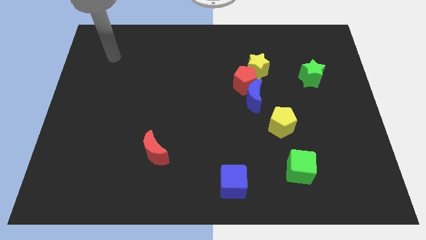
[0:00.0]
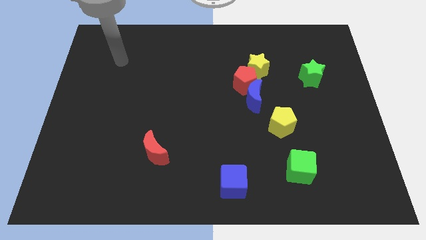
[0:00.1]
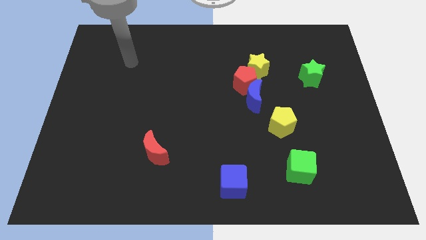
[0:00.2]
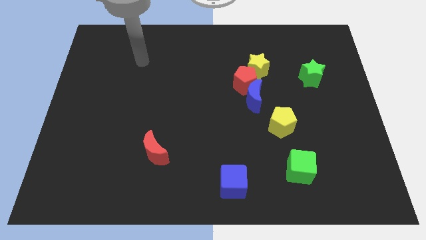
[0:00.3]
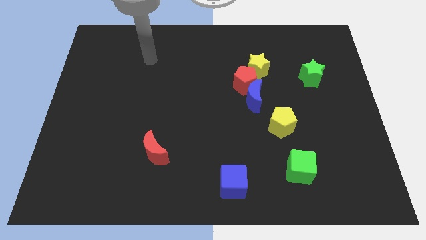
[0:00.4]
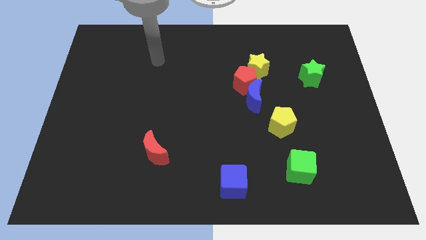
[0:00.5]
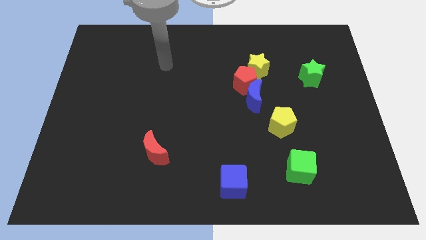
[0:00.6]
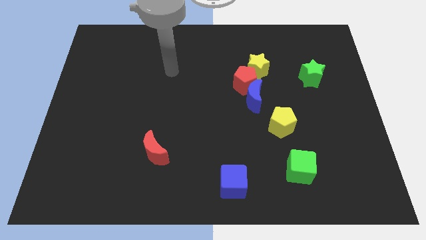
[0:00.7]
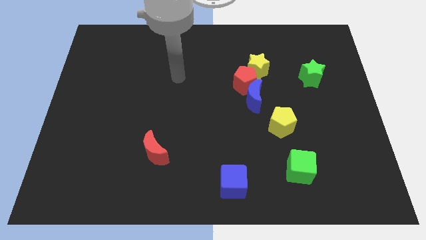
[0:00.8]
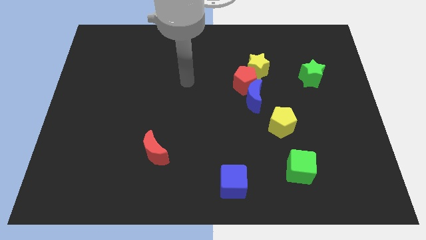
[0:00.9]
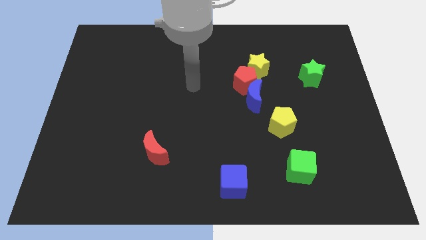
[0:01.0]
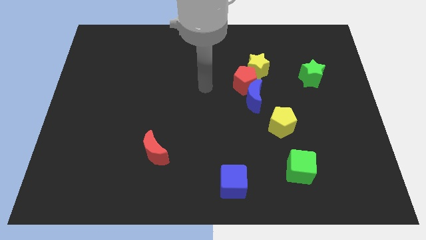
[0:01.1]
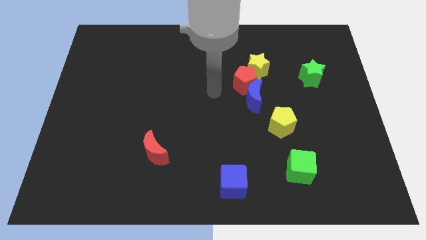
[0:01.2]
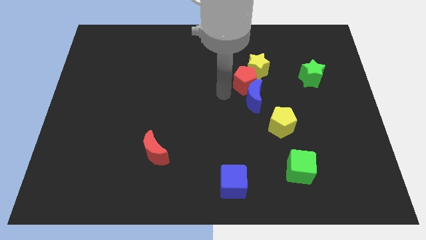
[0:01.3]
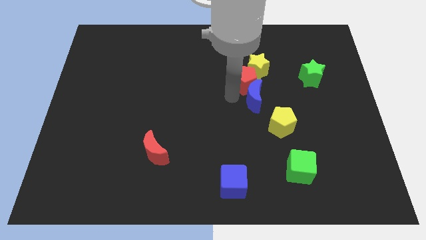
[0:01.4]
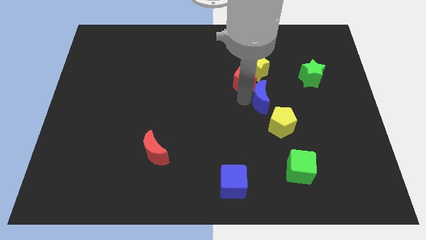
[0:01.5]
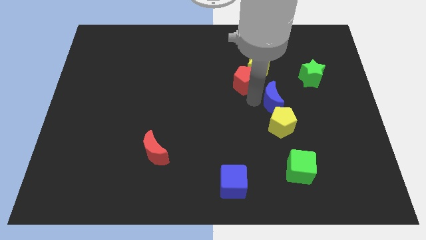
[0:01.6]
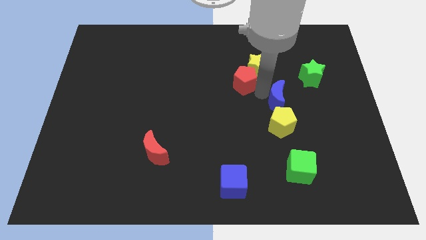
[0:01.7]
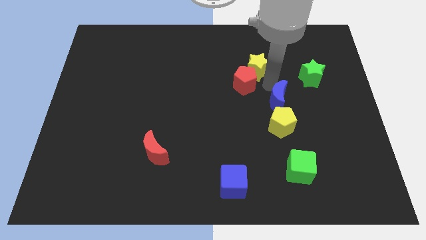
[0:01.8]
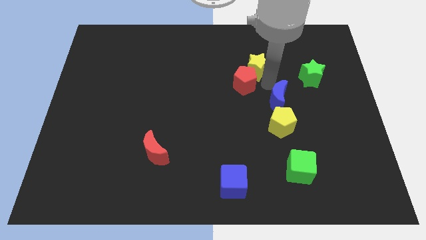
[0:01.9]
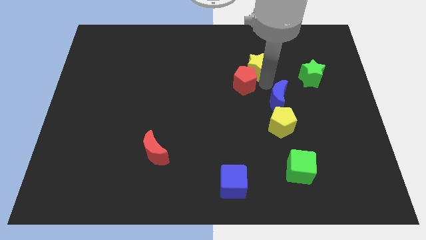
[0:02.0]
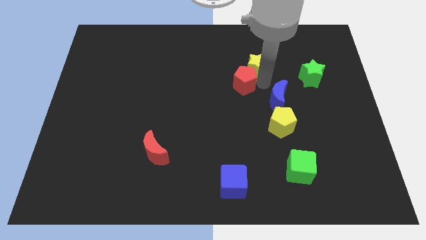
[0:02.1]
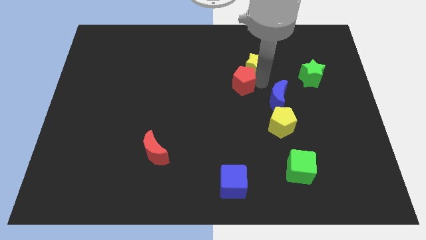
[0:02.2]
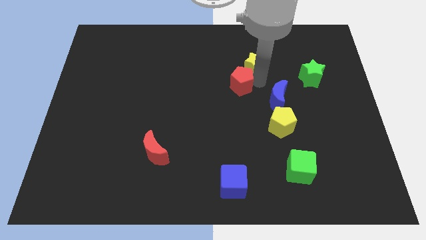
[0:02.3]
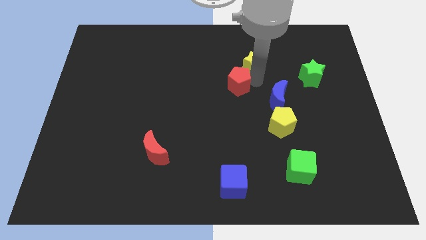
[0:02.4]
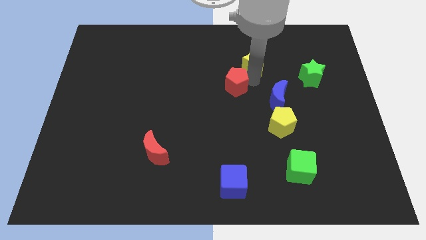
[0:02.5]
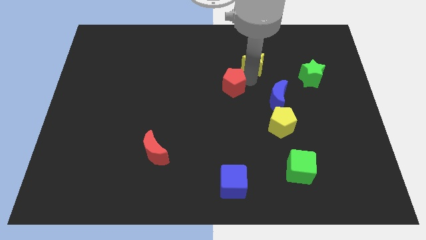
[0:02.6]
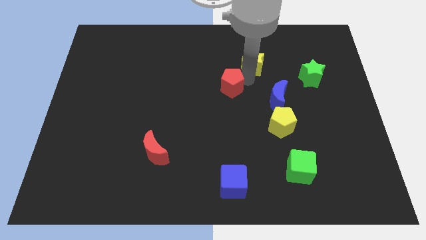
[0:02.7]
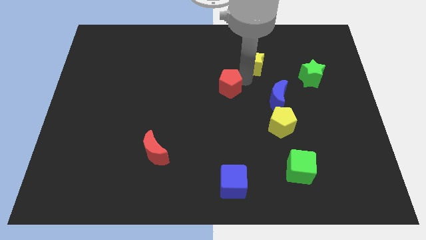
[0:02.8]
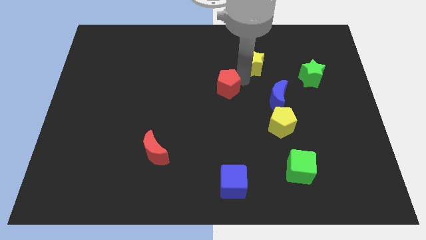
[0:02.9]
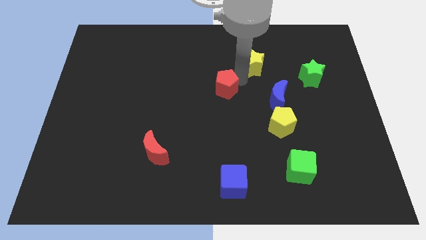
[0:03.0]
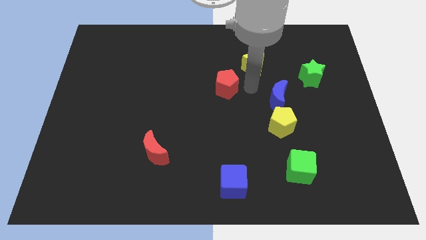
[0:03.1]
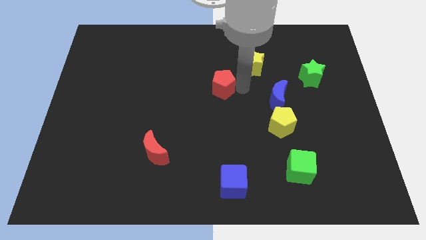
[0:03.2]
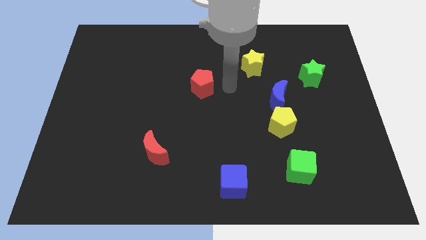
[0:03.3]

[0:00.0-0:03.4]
push the red pentagon somewhat to the left

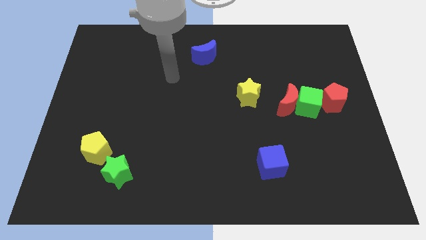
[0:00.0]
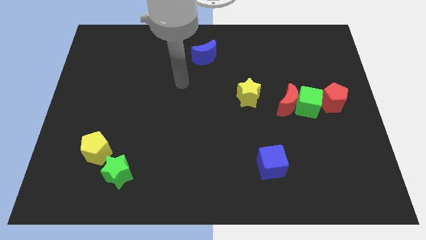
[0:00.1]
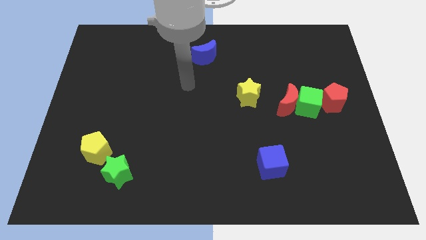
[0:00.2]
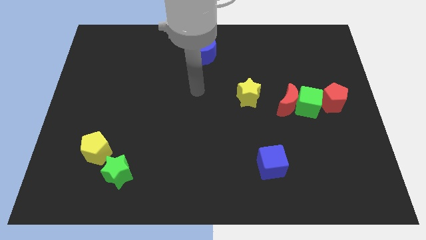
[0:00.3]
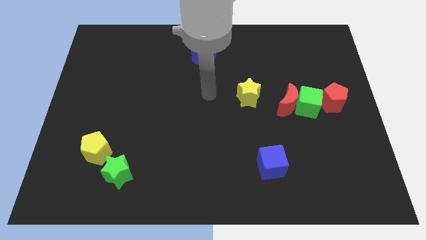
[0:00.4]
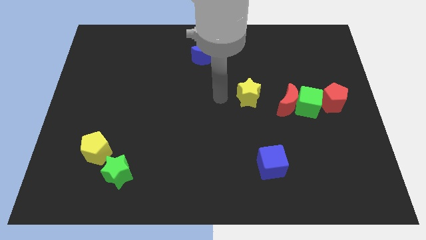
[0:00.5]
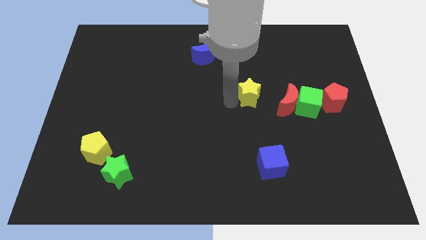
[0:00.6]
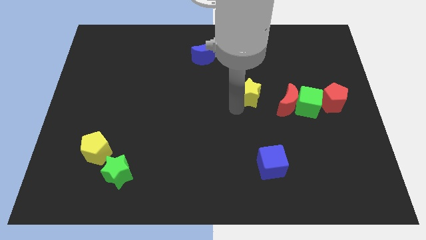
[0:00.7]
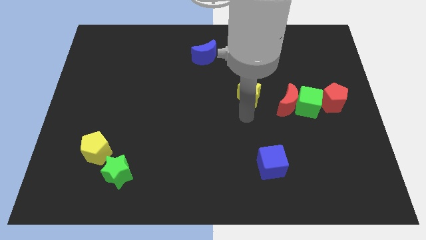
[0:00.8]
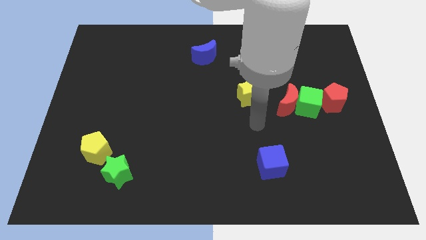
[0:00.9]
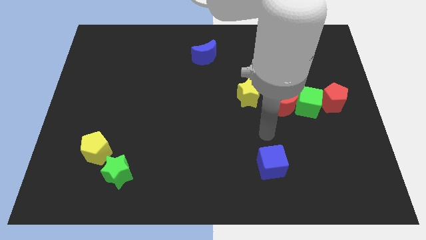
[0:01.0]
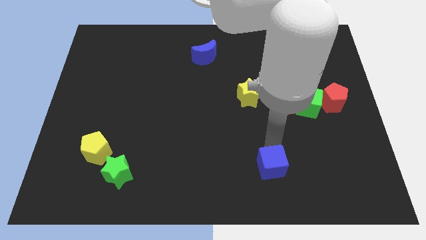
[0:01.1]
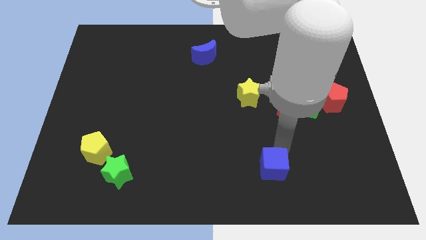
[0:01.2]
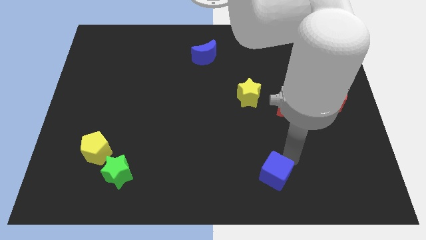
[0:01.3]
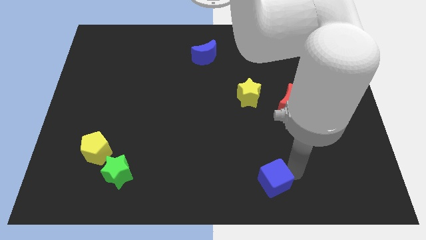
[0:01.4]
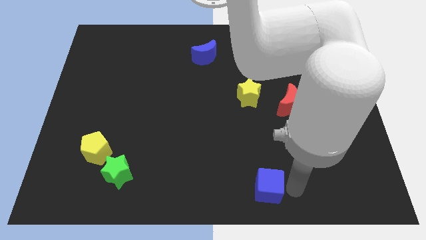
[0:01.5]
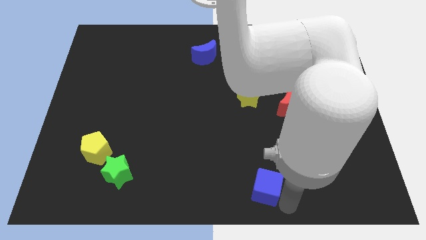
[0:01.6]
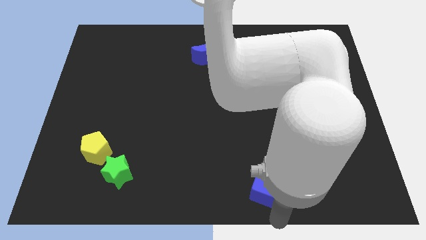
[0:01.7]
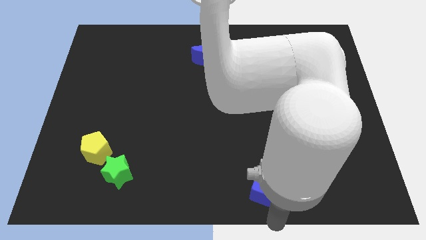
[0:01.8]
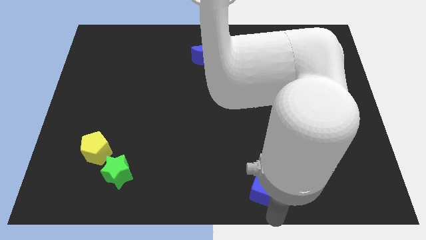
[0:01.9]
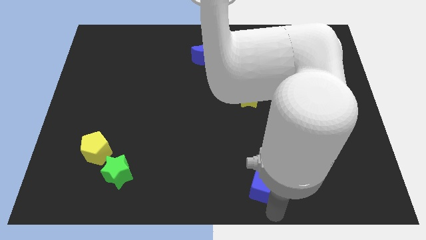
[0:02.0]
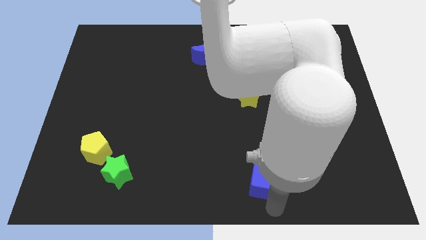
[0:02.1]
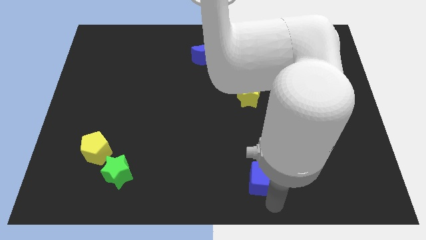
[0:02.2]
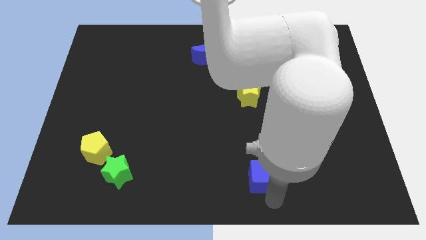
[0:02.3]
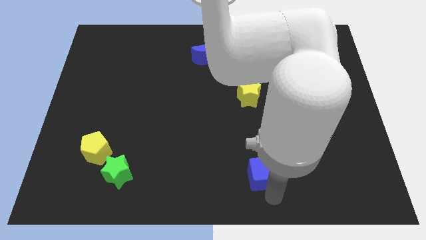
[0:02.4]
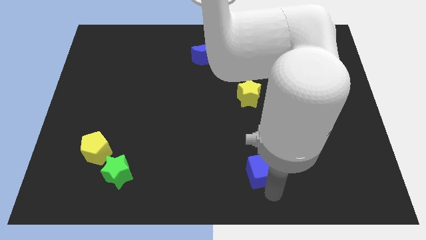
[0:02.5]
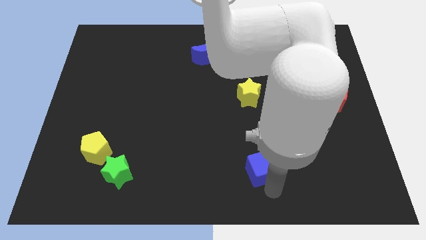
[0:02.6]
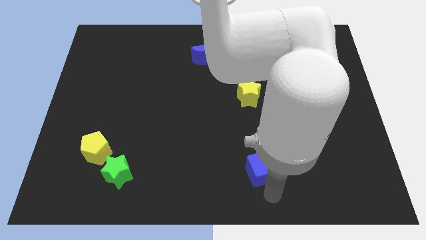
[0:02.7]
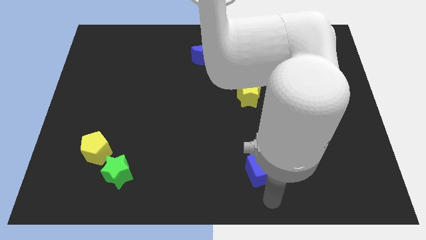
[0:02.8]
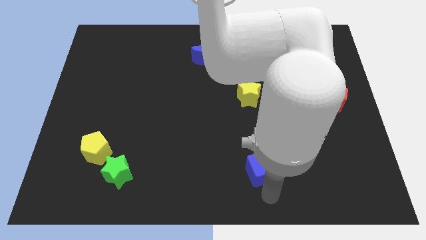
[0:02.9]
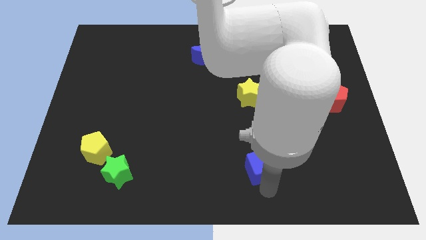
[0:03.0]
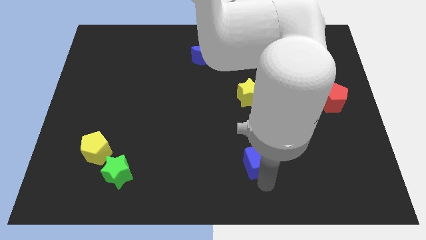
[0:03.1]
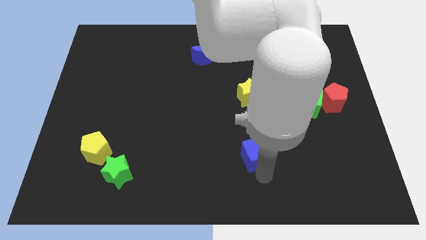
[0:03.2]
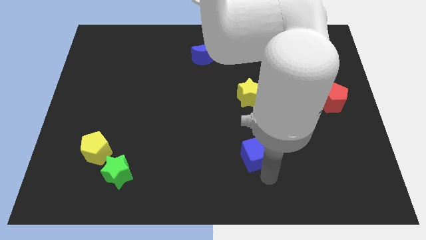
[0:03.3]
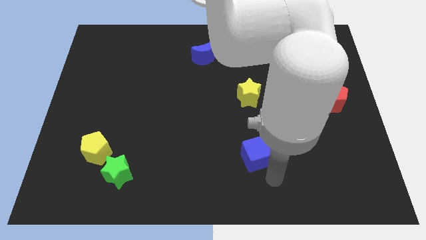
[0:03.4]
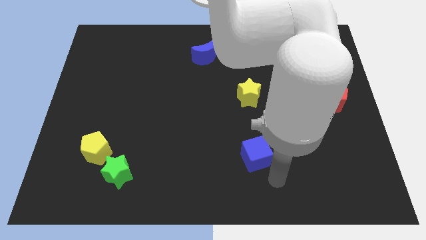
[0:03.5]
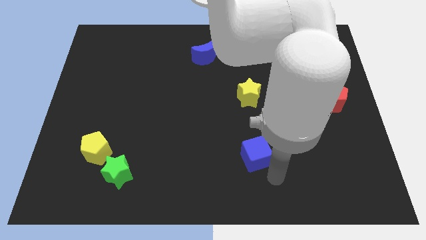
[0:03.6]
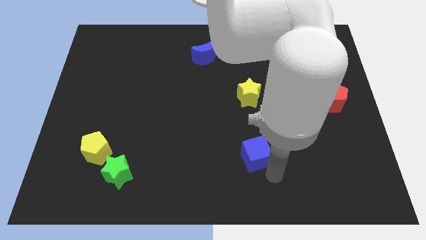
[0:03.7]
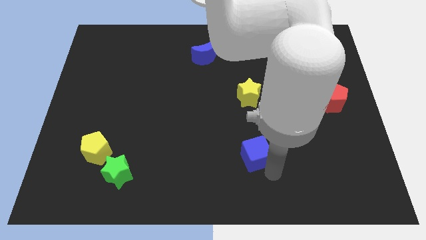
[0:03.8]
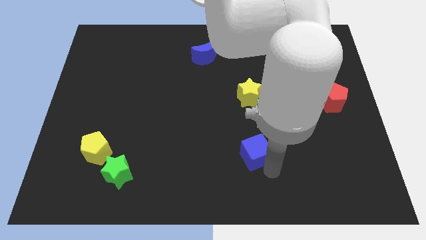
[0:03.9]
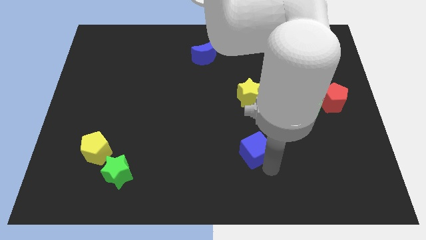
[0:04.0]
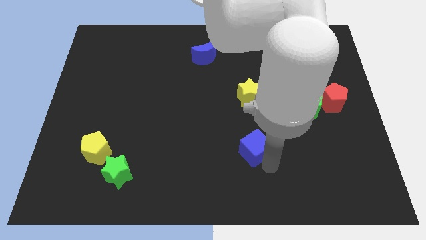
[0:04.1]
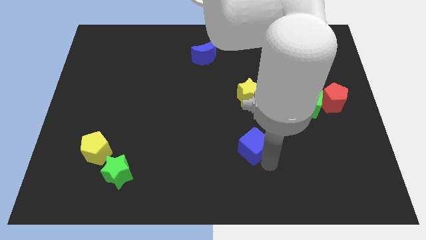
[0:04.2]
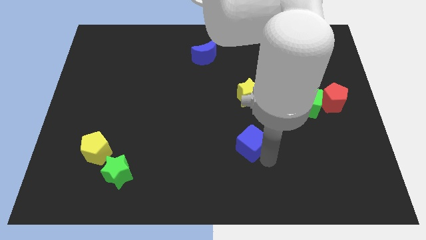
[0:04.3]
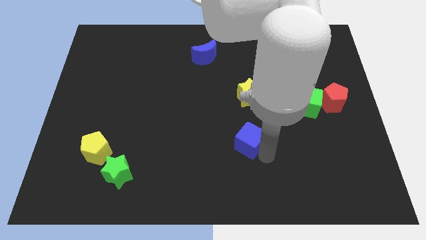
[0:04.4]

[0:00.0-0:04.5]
move the blue cube up and to the left a little bit
